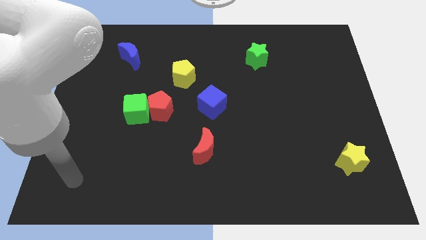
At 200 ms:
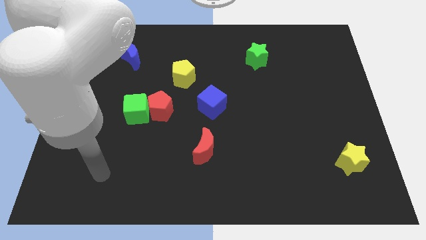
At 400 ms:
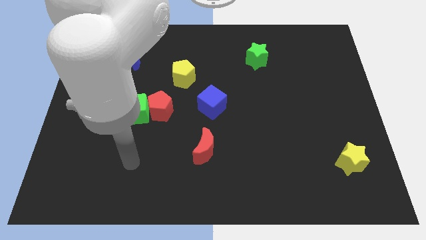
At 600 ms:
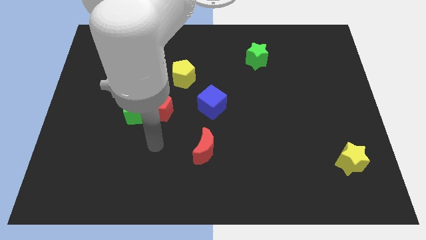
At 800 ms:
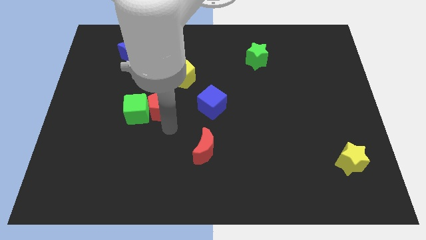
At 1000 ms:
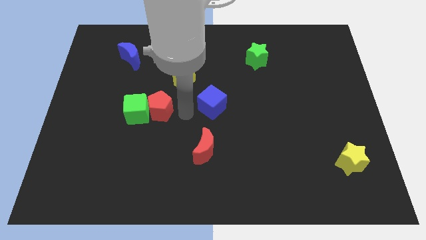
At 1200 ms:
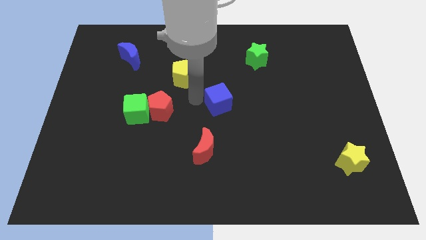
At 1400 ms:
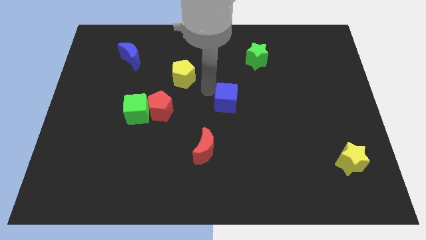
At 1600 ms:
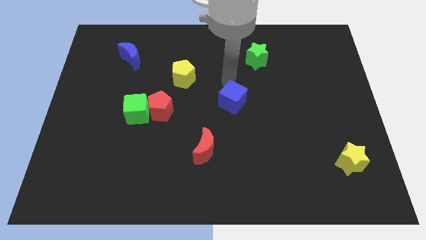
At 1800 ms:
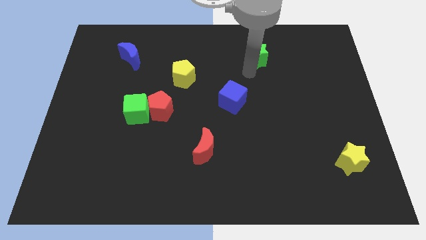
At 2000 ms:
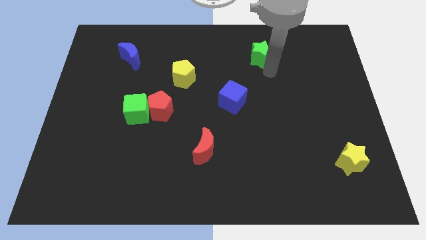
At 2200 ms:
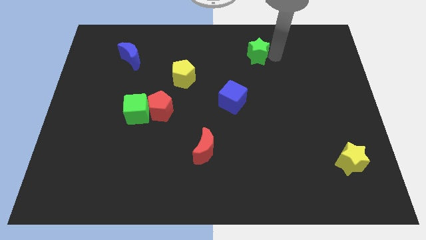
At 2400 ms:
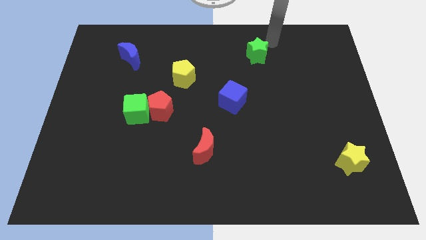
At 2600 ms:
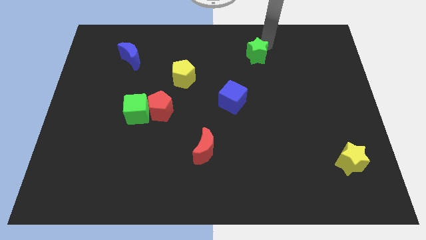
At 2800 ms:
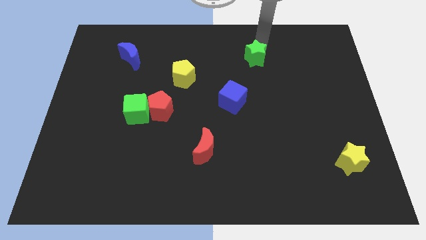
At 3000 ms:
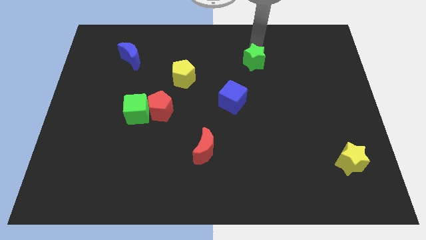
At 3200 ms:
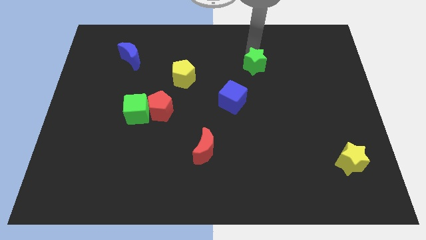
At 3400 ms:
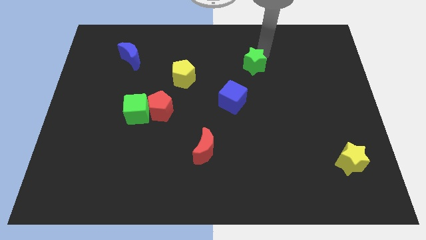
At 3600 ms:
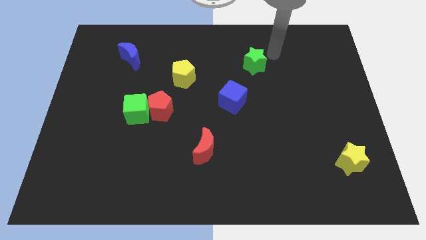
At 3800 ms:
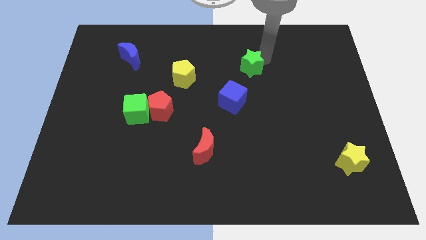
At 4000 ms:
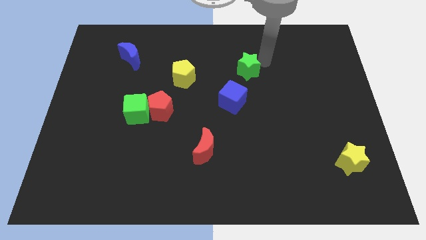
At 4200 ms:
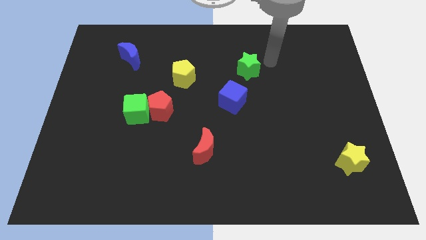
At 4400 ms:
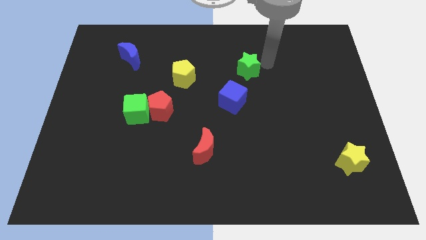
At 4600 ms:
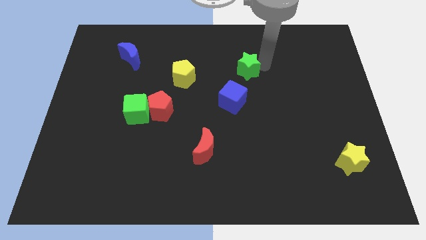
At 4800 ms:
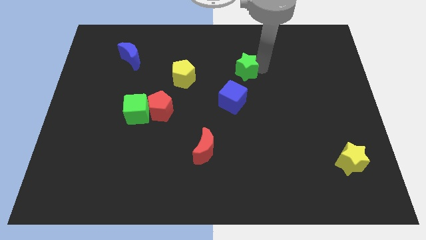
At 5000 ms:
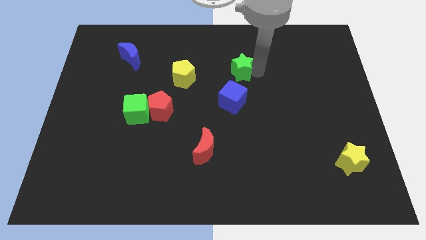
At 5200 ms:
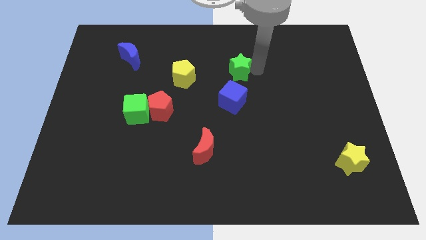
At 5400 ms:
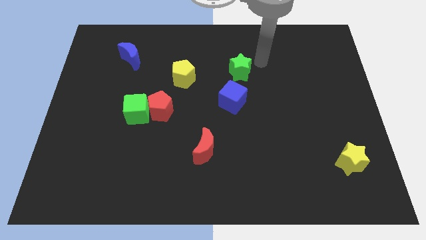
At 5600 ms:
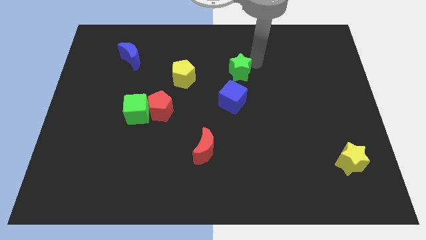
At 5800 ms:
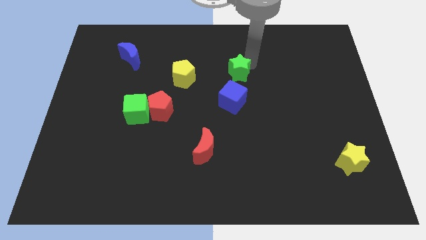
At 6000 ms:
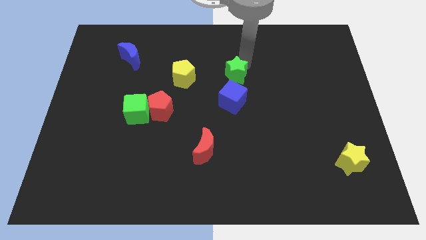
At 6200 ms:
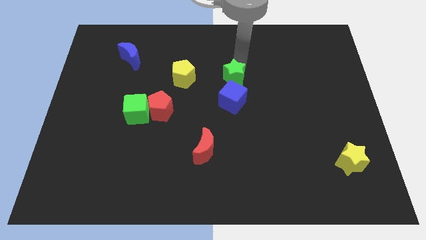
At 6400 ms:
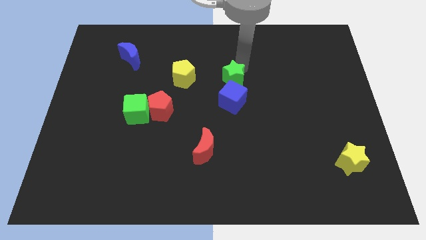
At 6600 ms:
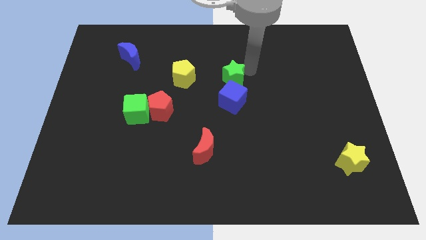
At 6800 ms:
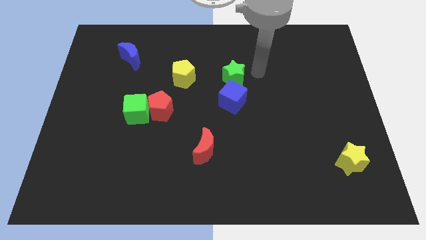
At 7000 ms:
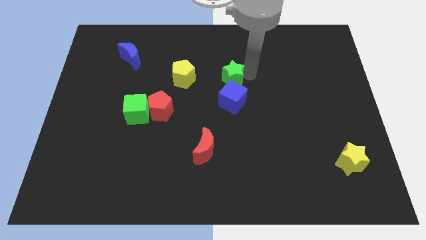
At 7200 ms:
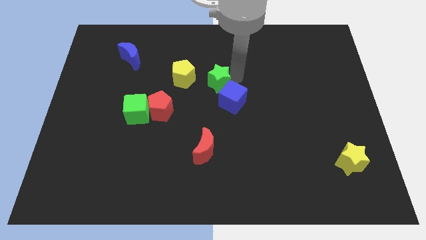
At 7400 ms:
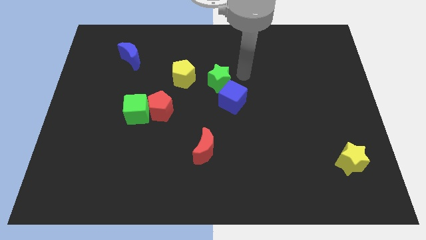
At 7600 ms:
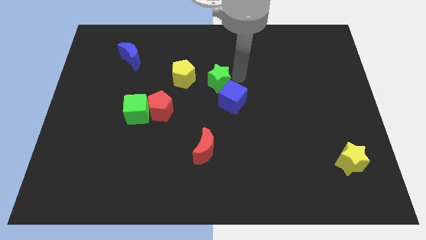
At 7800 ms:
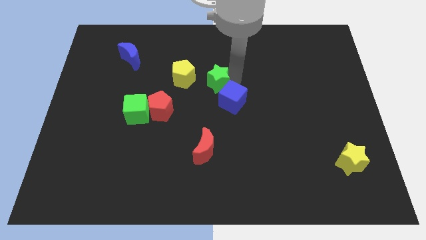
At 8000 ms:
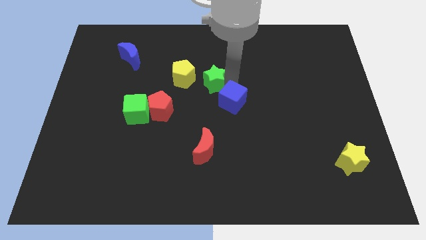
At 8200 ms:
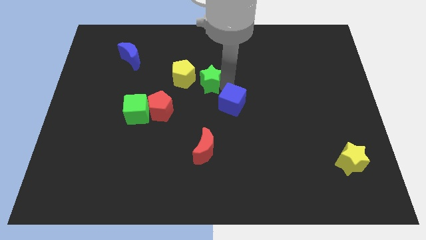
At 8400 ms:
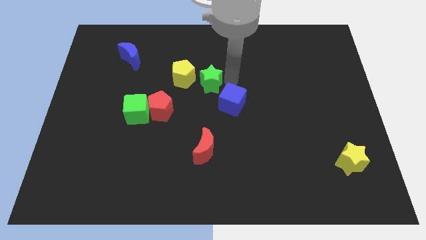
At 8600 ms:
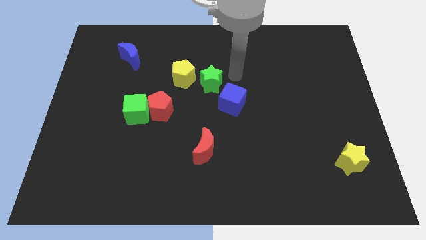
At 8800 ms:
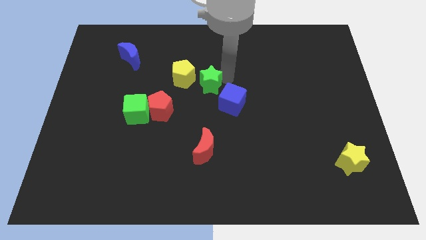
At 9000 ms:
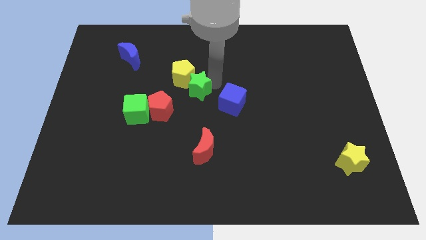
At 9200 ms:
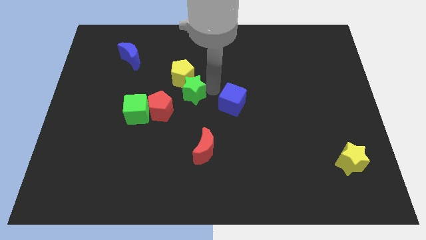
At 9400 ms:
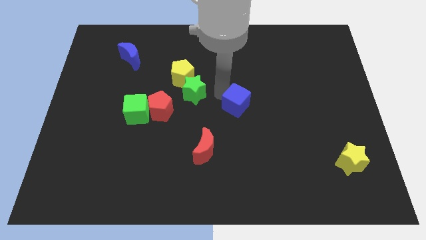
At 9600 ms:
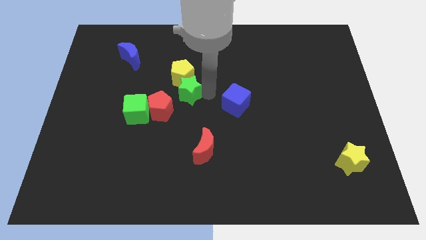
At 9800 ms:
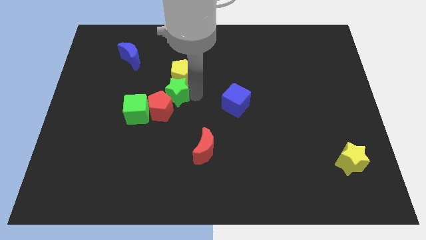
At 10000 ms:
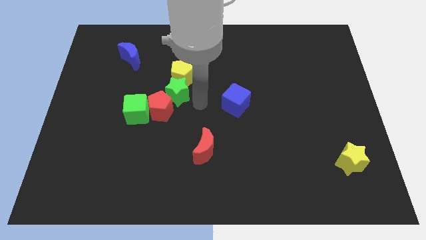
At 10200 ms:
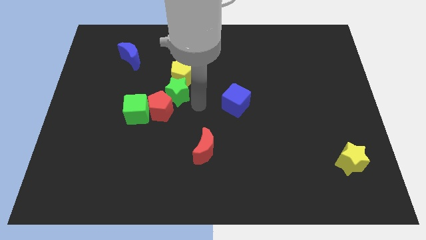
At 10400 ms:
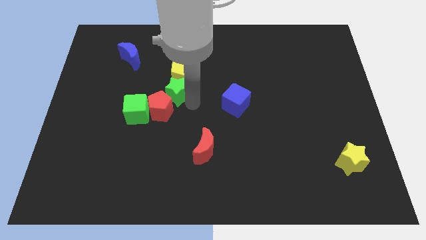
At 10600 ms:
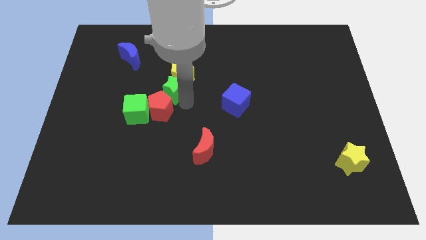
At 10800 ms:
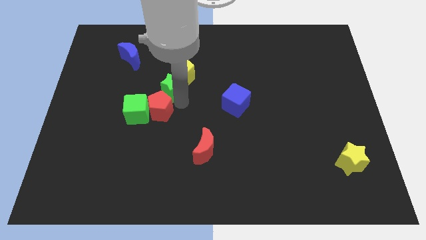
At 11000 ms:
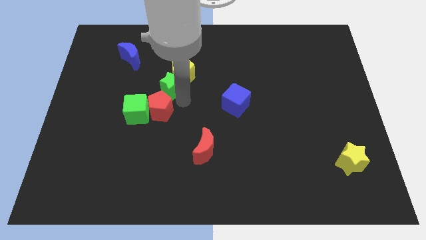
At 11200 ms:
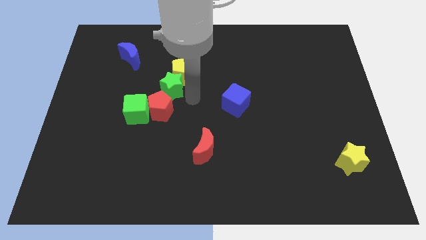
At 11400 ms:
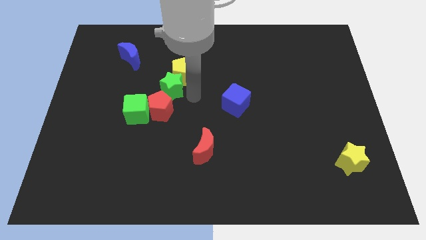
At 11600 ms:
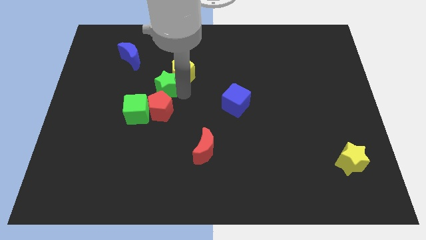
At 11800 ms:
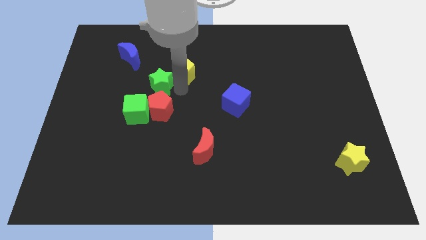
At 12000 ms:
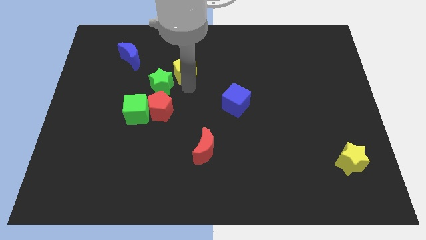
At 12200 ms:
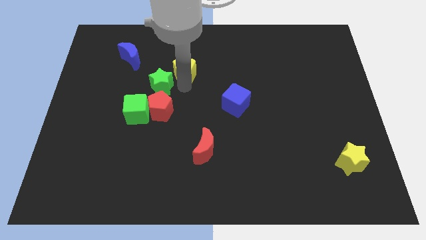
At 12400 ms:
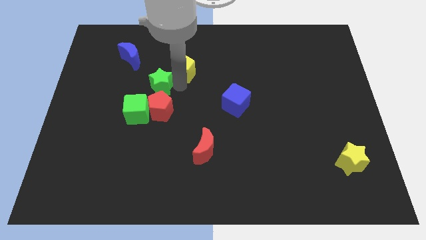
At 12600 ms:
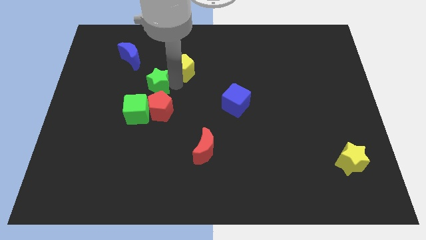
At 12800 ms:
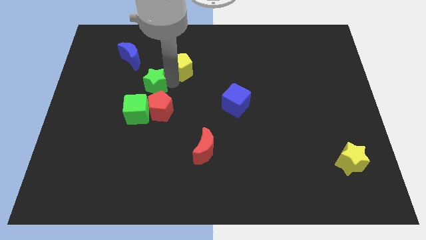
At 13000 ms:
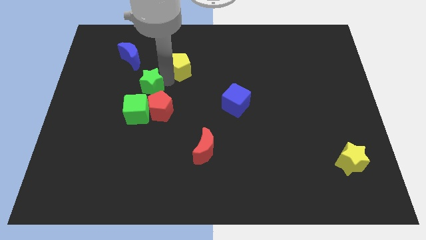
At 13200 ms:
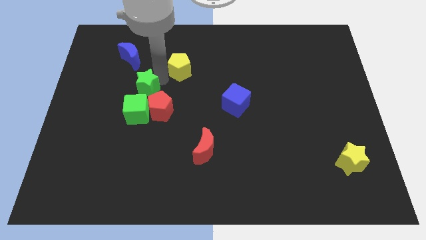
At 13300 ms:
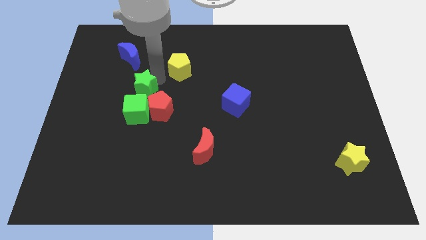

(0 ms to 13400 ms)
slide the green star below the blue moon

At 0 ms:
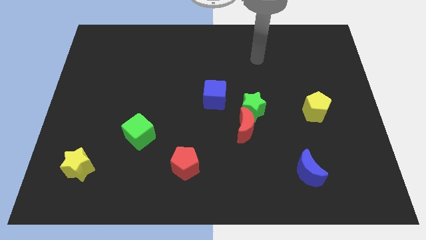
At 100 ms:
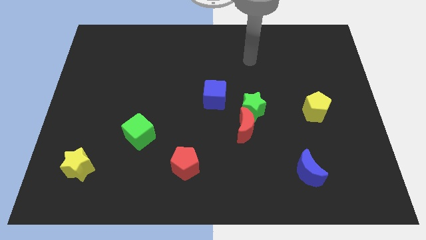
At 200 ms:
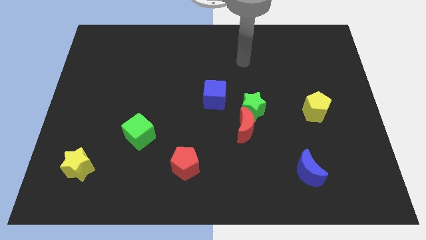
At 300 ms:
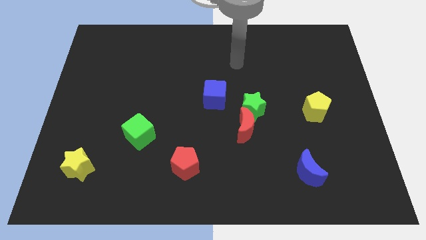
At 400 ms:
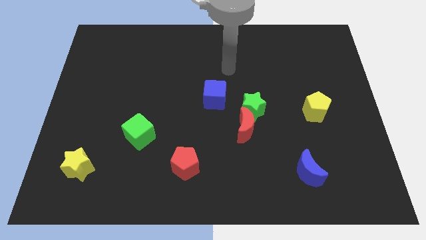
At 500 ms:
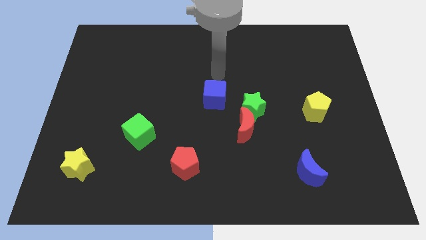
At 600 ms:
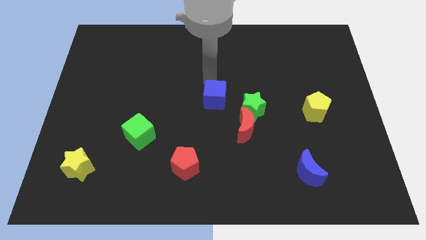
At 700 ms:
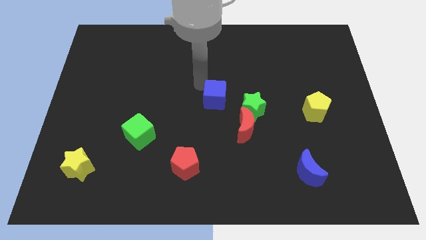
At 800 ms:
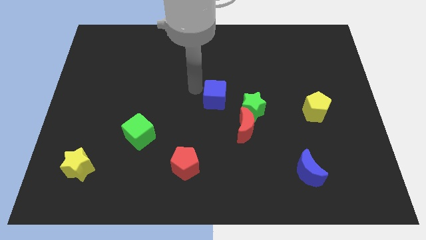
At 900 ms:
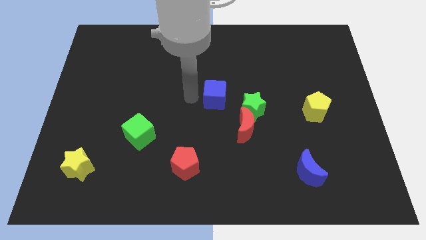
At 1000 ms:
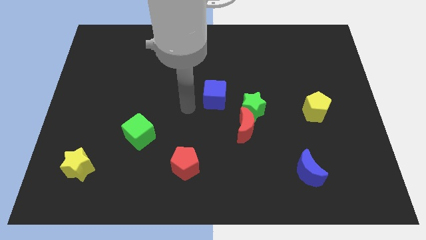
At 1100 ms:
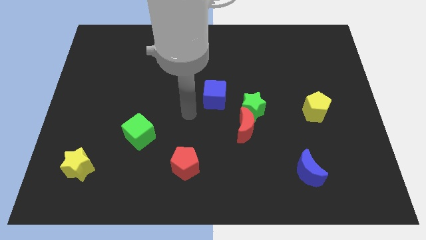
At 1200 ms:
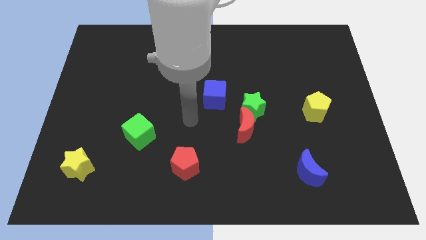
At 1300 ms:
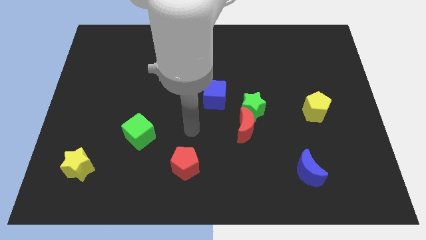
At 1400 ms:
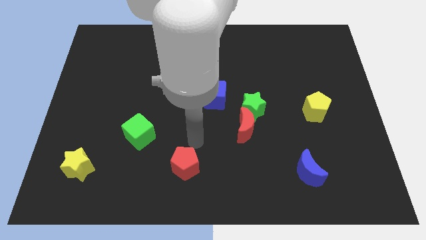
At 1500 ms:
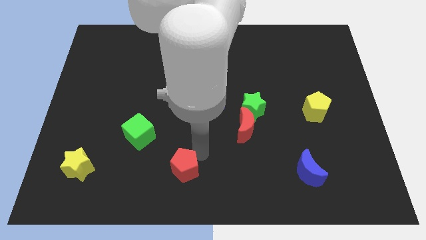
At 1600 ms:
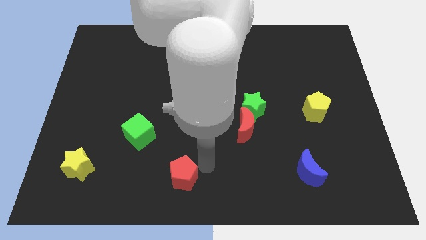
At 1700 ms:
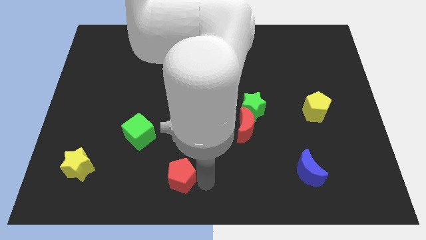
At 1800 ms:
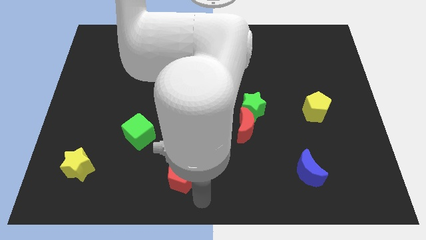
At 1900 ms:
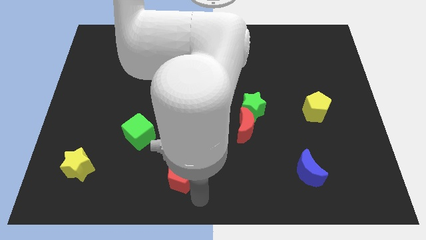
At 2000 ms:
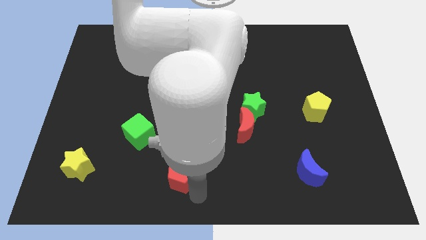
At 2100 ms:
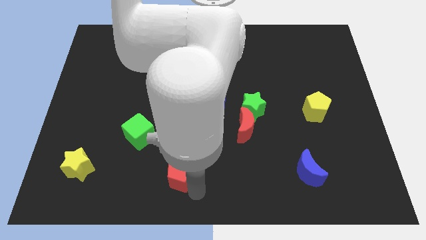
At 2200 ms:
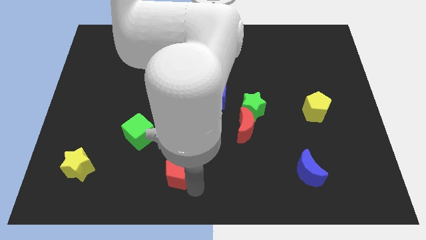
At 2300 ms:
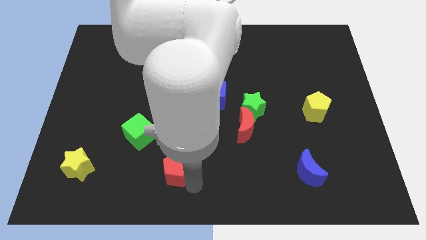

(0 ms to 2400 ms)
put the red pentagon to the bottom right side of the green cube
